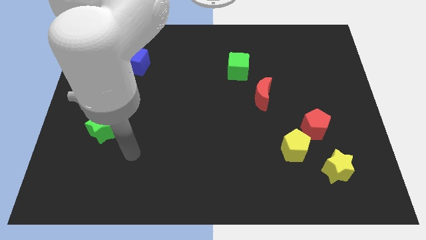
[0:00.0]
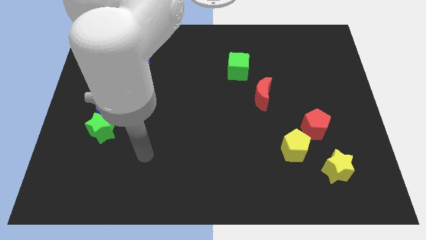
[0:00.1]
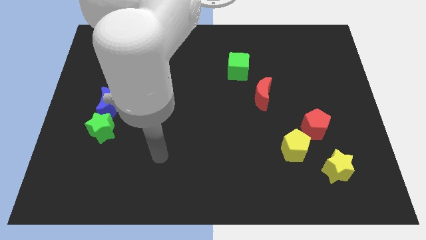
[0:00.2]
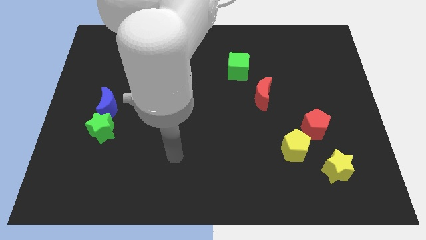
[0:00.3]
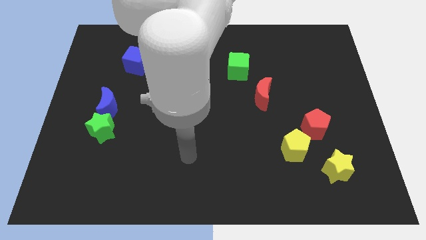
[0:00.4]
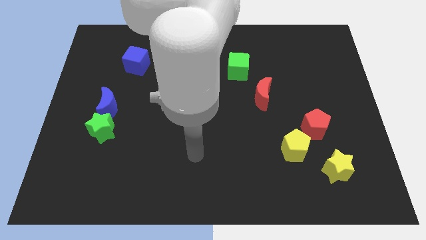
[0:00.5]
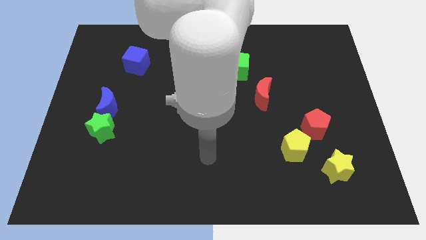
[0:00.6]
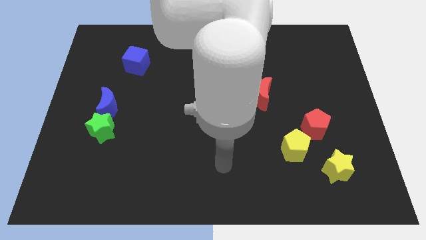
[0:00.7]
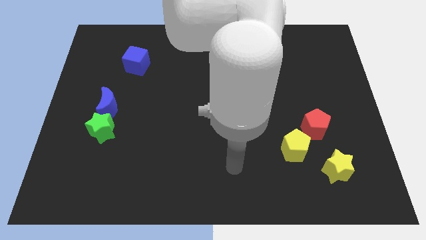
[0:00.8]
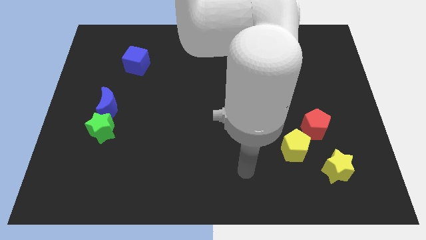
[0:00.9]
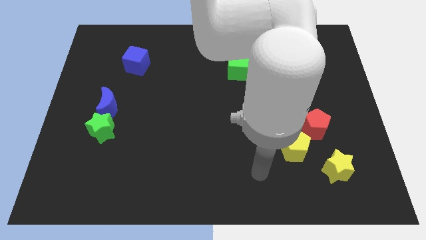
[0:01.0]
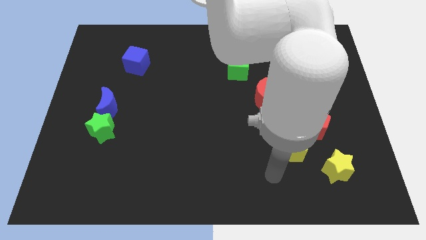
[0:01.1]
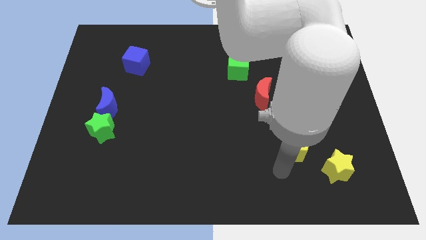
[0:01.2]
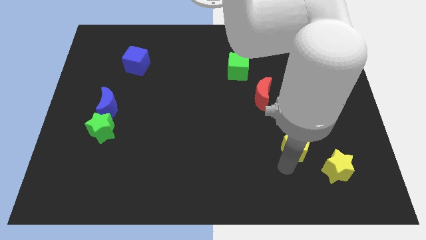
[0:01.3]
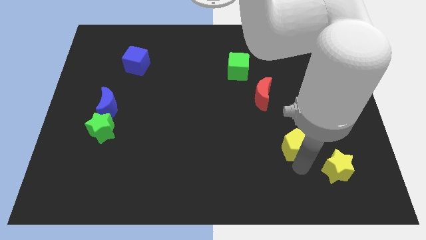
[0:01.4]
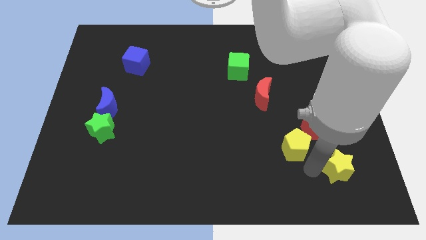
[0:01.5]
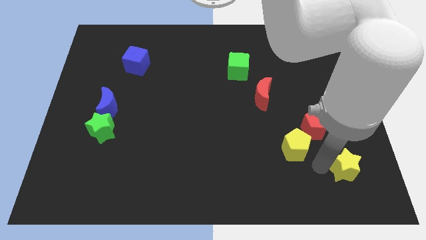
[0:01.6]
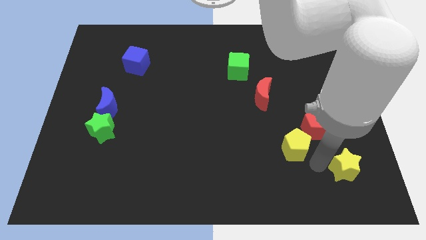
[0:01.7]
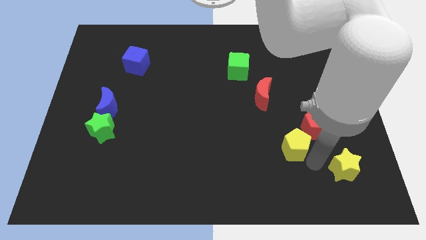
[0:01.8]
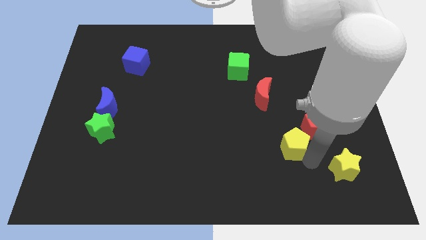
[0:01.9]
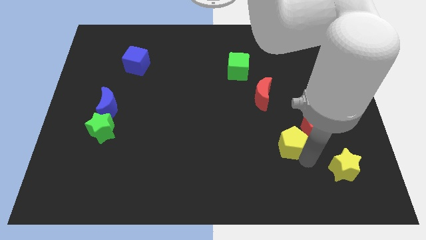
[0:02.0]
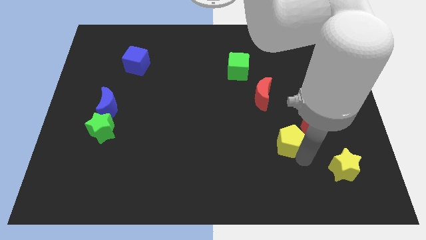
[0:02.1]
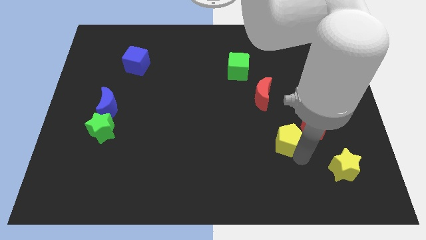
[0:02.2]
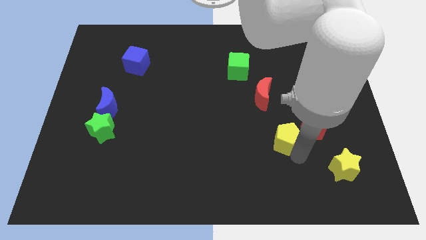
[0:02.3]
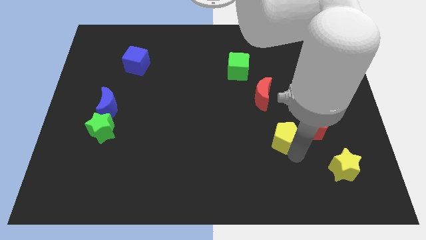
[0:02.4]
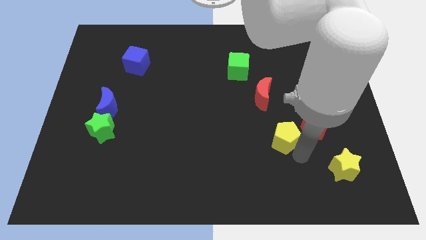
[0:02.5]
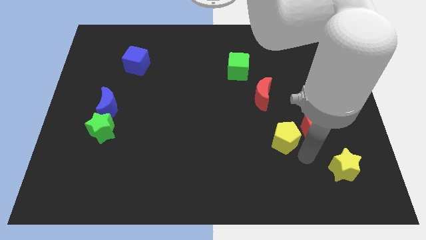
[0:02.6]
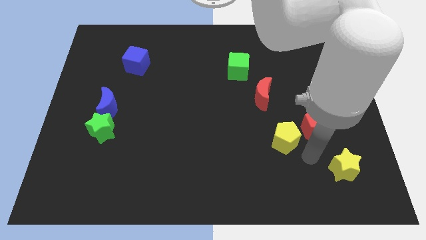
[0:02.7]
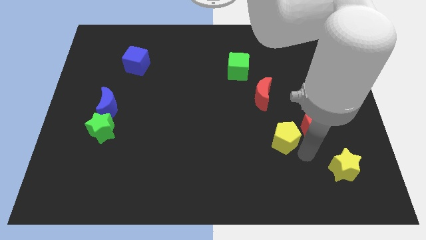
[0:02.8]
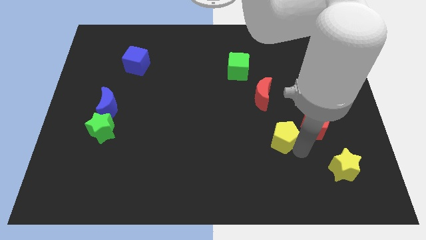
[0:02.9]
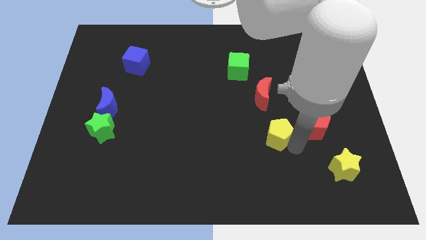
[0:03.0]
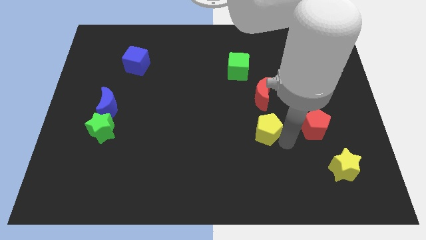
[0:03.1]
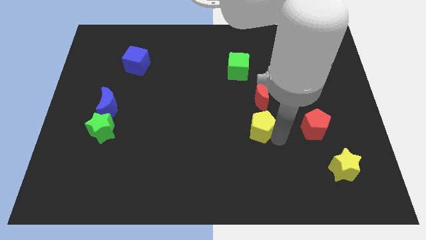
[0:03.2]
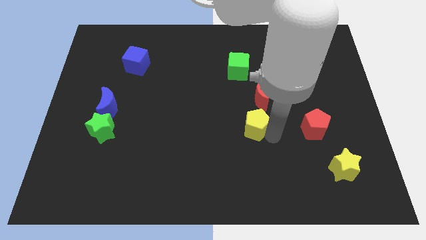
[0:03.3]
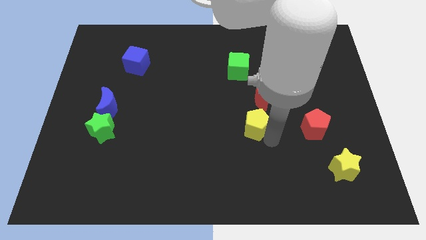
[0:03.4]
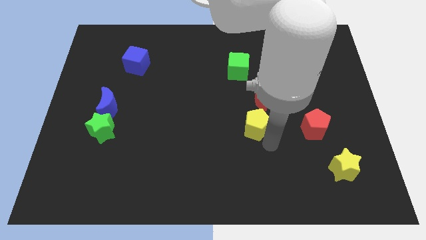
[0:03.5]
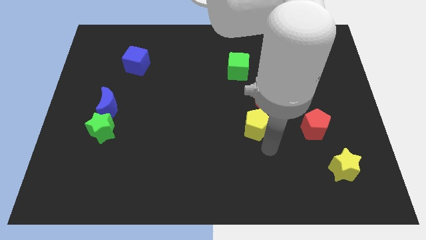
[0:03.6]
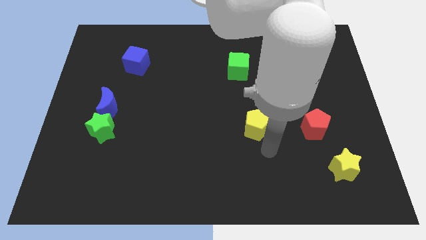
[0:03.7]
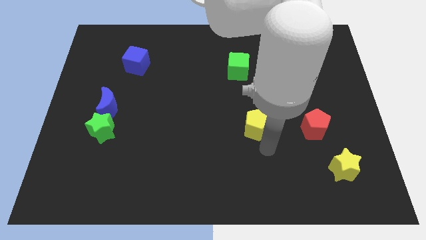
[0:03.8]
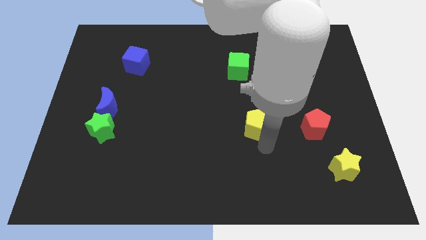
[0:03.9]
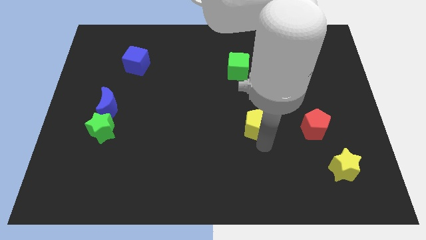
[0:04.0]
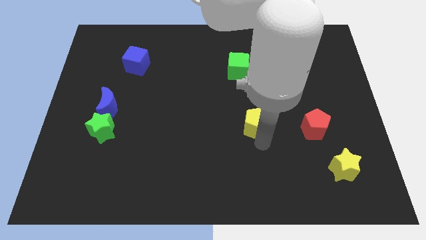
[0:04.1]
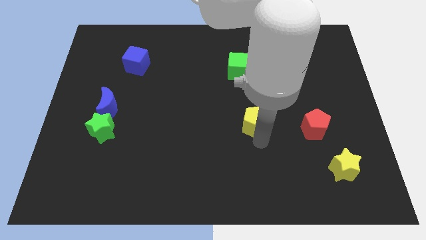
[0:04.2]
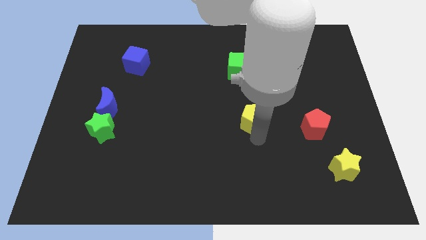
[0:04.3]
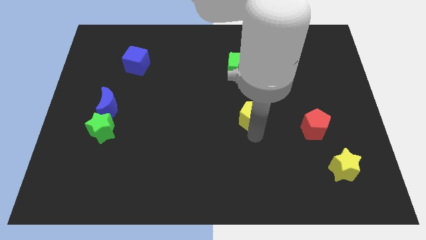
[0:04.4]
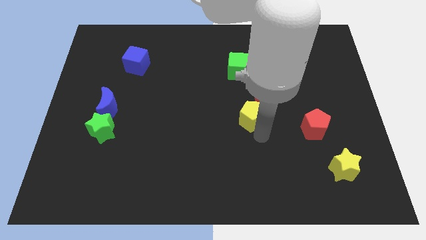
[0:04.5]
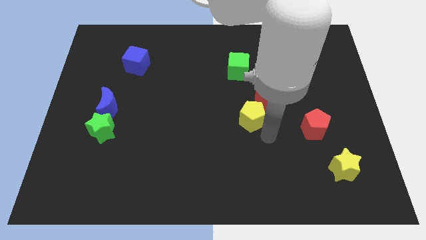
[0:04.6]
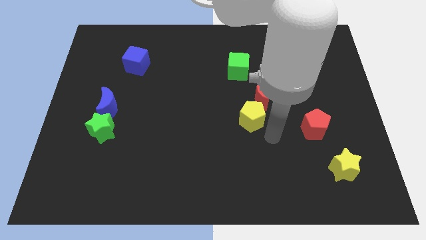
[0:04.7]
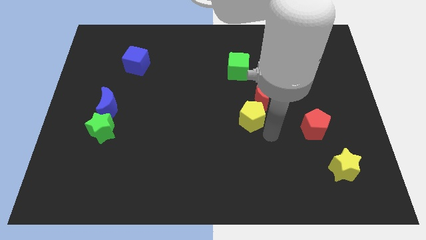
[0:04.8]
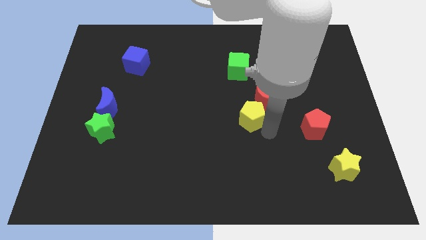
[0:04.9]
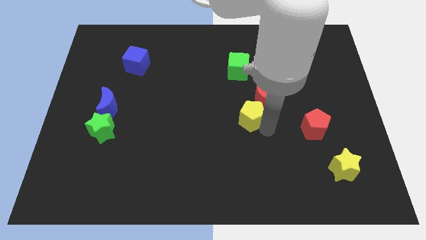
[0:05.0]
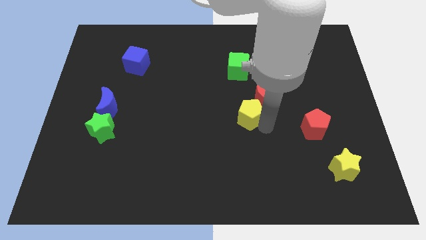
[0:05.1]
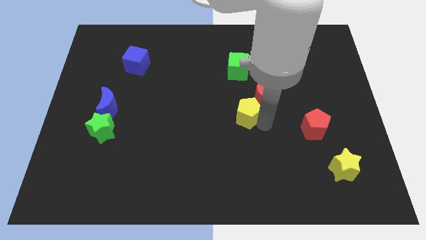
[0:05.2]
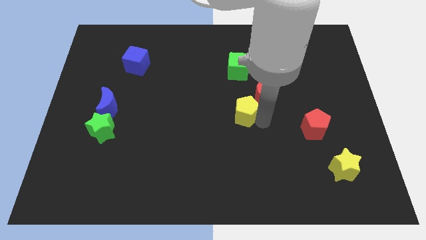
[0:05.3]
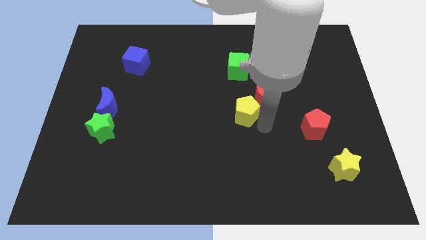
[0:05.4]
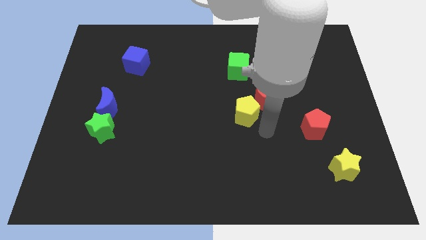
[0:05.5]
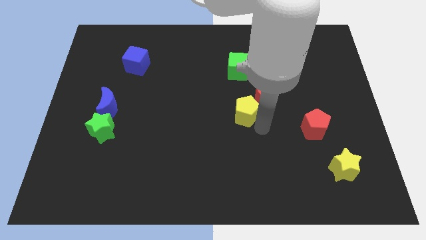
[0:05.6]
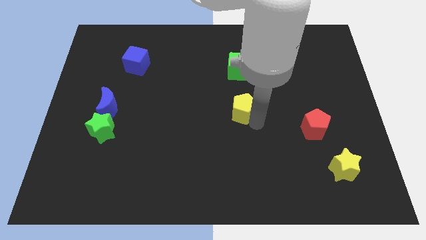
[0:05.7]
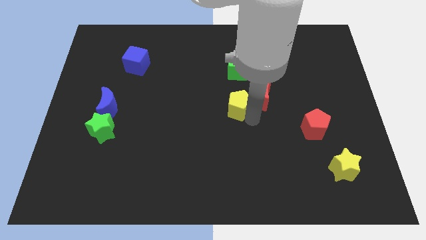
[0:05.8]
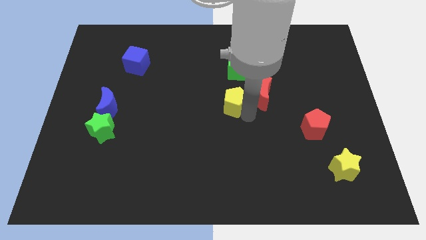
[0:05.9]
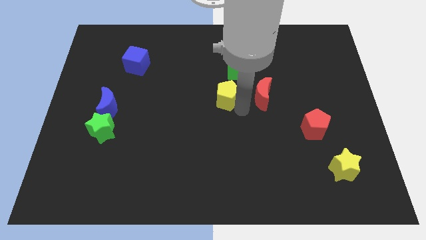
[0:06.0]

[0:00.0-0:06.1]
push the yellow pentagon diagonally upwards and to the left

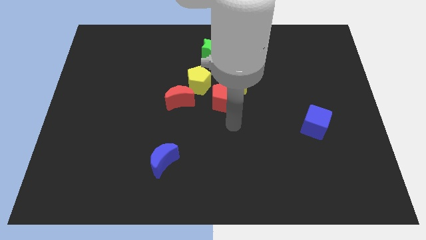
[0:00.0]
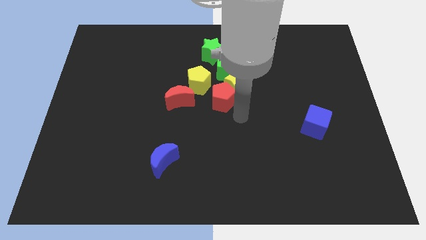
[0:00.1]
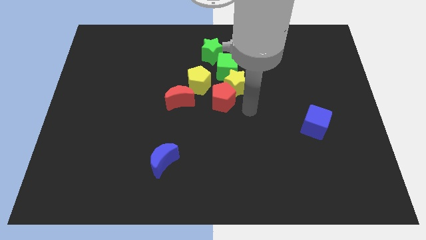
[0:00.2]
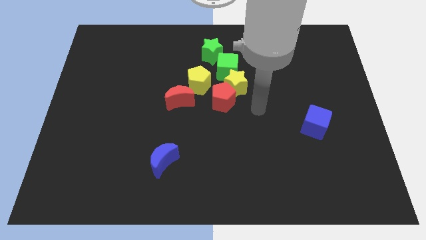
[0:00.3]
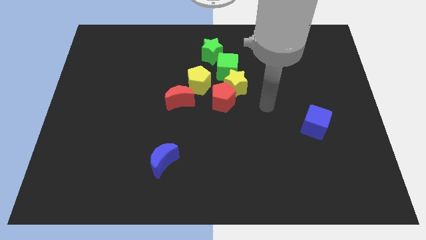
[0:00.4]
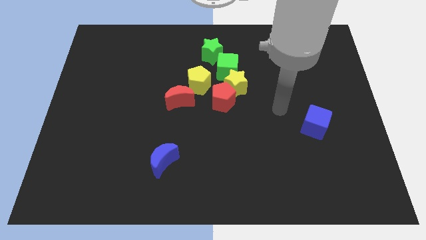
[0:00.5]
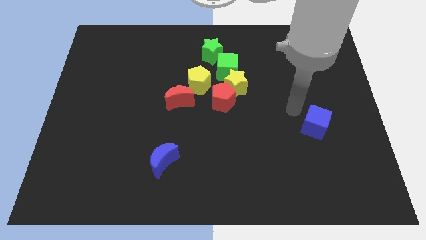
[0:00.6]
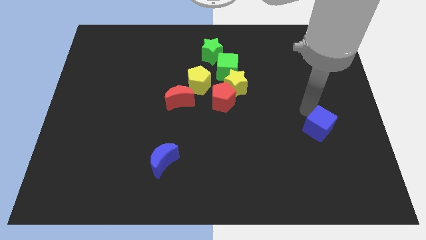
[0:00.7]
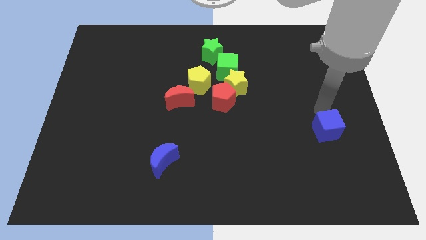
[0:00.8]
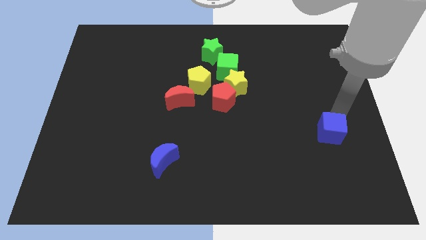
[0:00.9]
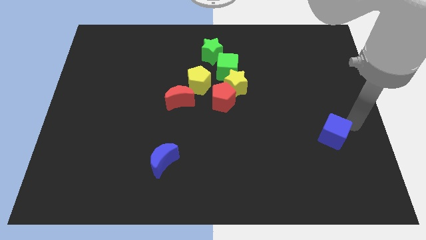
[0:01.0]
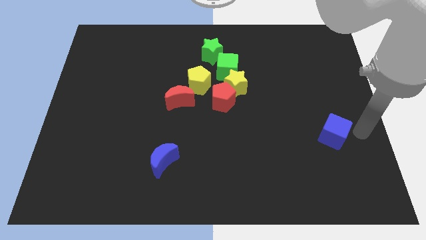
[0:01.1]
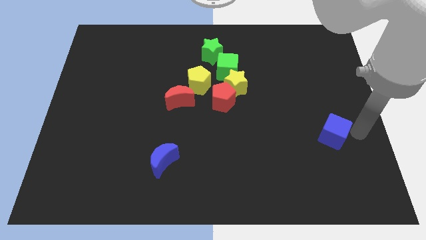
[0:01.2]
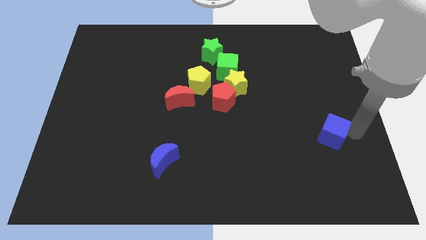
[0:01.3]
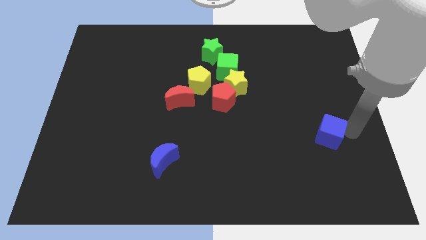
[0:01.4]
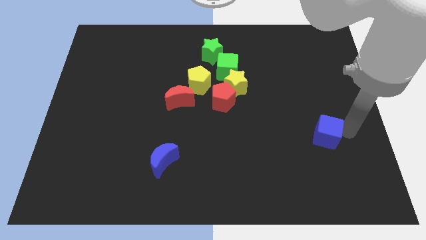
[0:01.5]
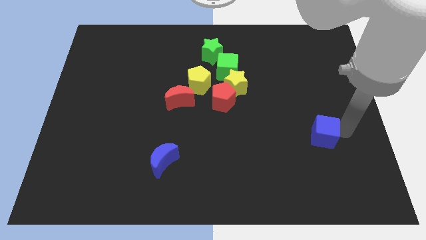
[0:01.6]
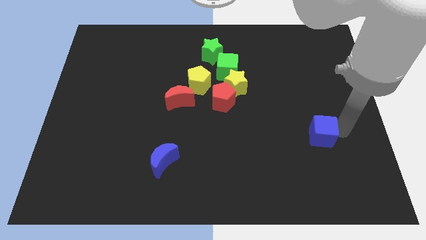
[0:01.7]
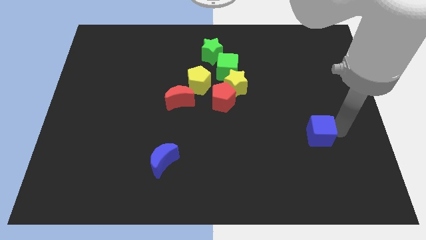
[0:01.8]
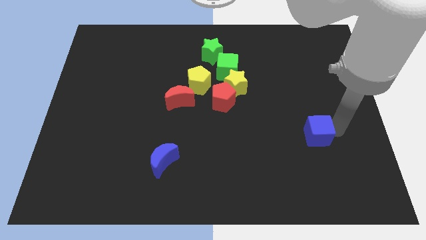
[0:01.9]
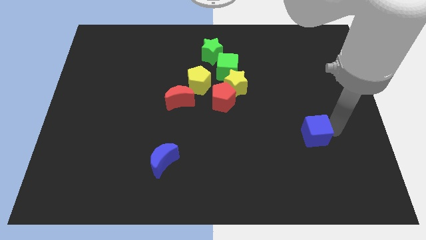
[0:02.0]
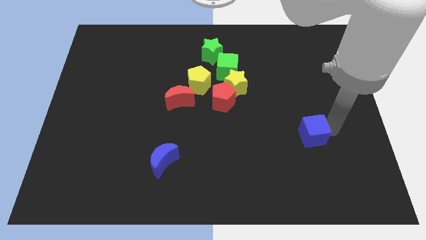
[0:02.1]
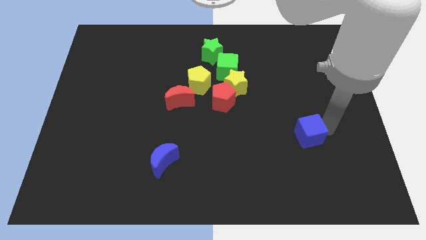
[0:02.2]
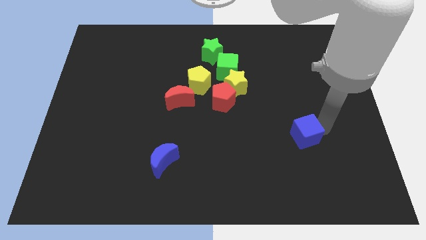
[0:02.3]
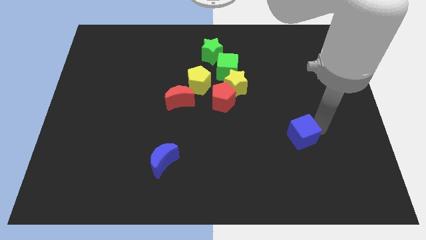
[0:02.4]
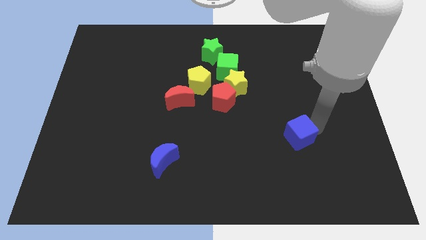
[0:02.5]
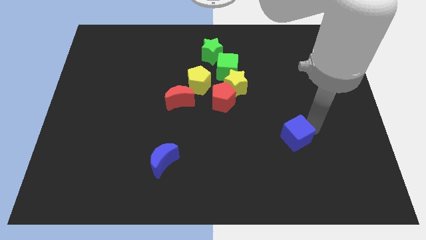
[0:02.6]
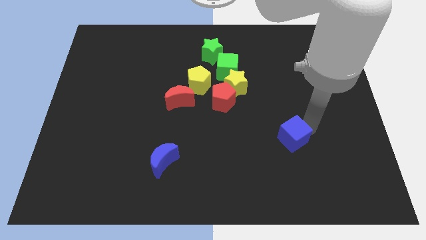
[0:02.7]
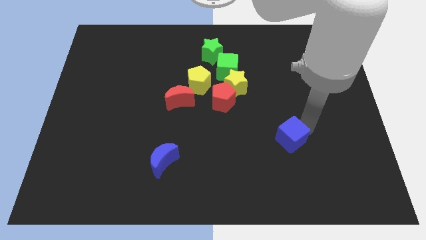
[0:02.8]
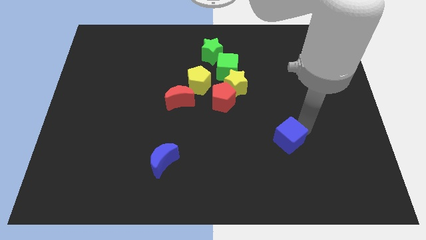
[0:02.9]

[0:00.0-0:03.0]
slightly move the blue cube diagonally down and to the left
